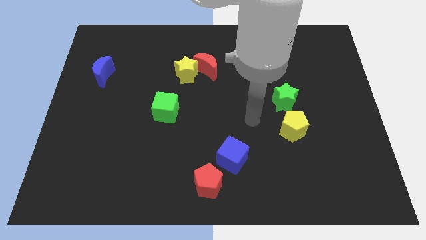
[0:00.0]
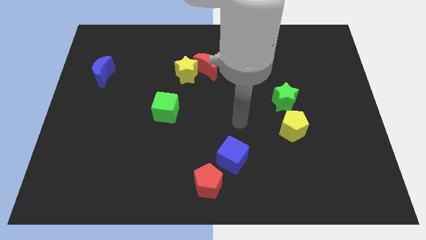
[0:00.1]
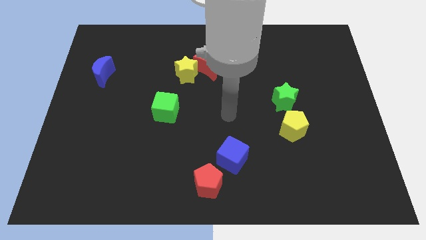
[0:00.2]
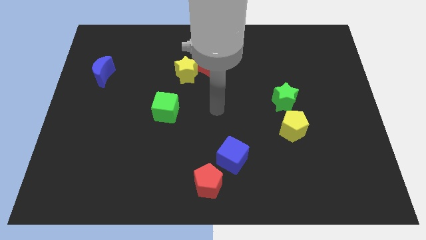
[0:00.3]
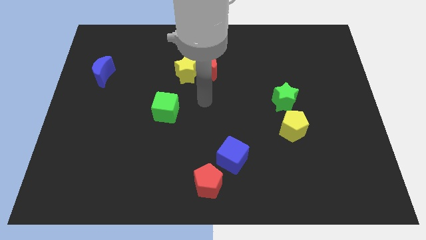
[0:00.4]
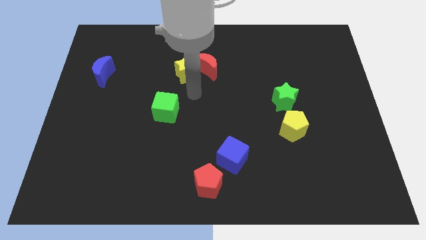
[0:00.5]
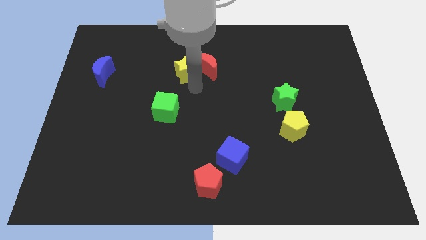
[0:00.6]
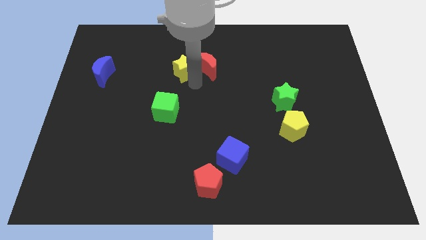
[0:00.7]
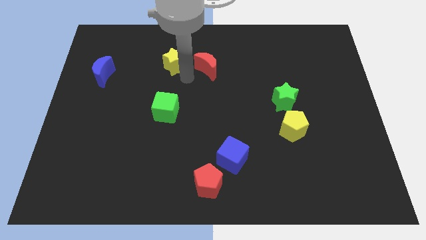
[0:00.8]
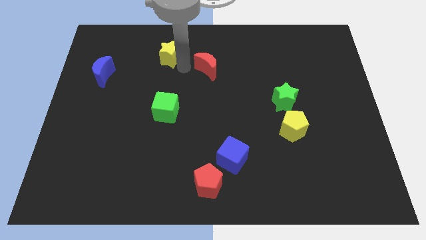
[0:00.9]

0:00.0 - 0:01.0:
pull the red moon apart from the yellow star

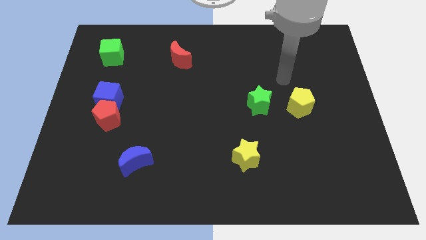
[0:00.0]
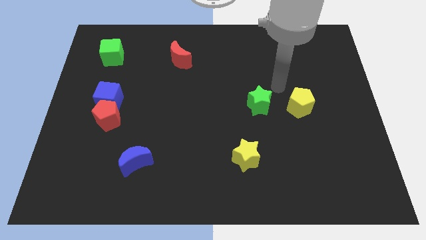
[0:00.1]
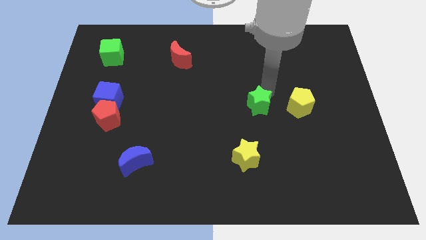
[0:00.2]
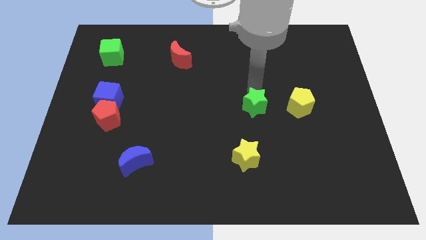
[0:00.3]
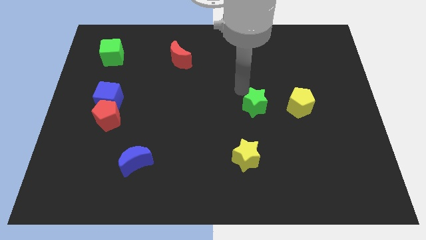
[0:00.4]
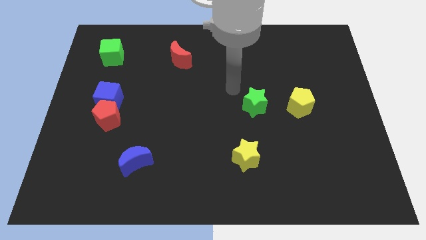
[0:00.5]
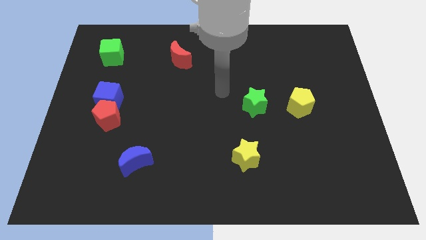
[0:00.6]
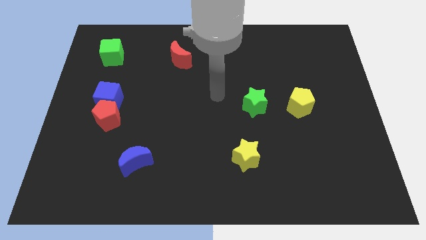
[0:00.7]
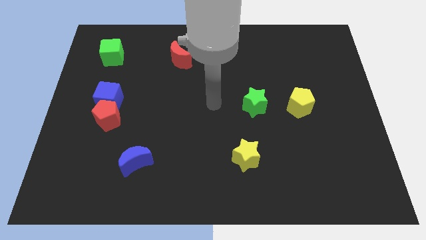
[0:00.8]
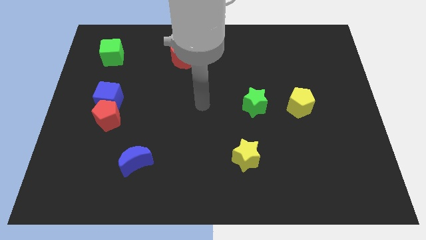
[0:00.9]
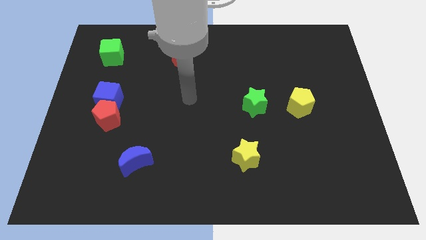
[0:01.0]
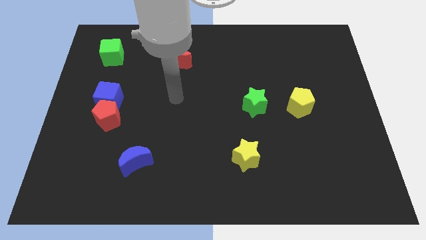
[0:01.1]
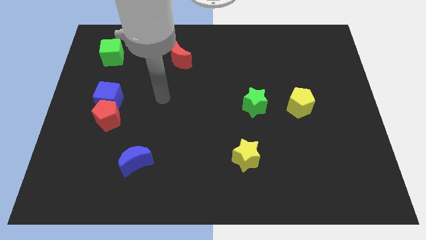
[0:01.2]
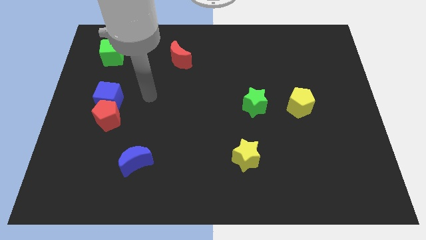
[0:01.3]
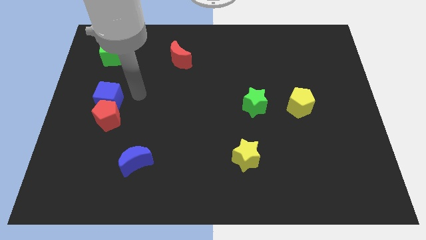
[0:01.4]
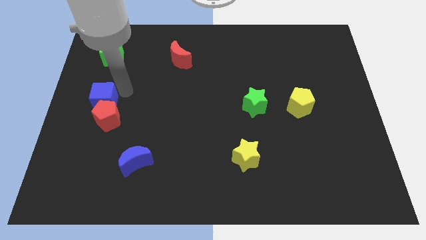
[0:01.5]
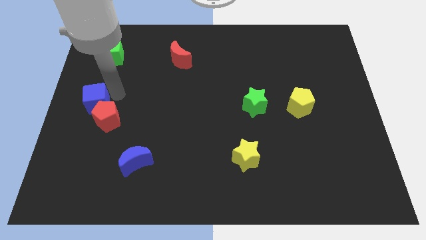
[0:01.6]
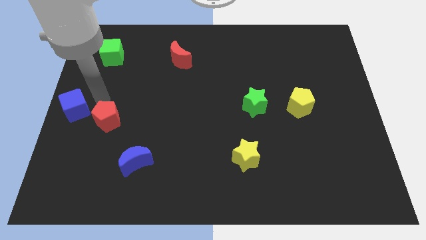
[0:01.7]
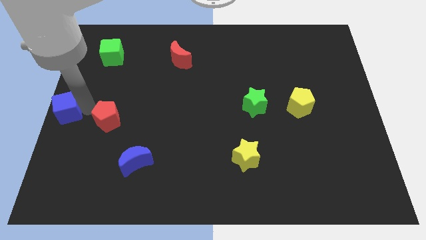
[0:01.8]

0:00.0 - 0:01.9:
pull the red pentagon apart from the blue cube

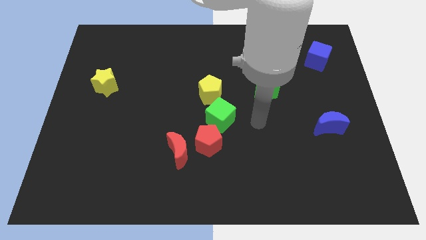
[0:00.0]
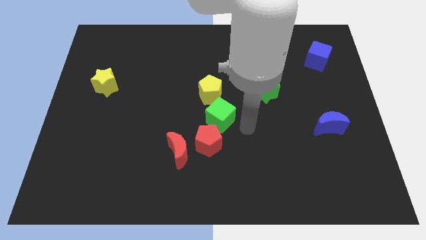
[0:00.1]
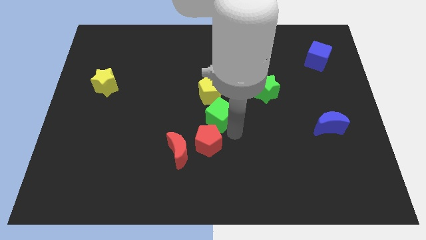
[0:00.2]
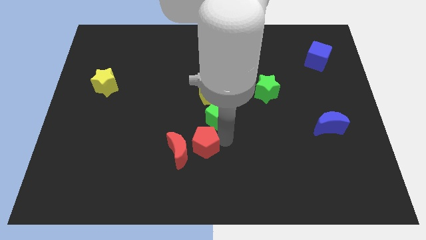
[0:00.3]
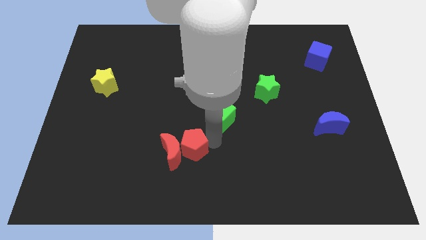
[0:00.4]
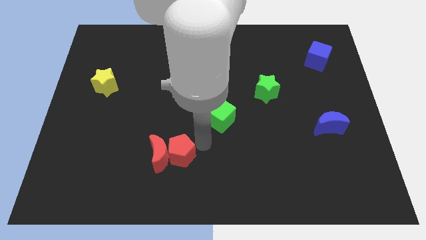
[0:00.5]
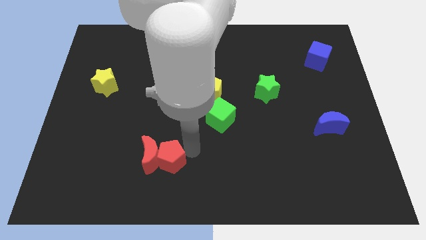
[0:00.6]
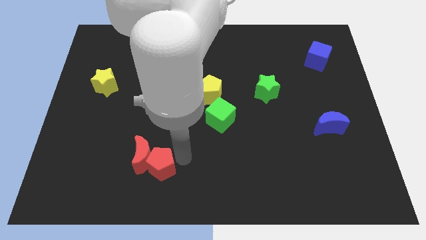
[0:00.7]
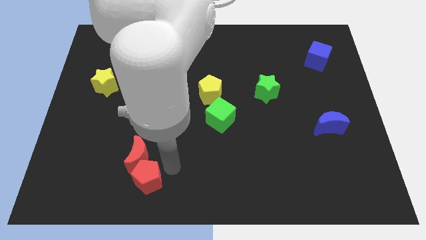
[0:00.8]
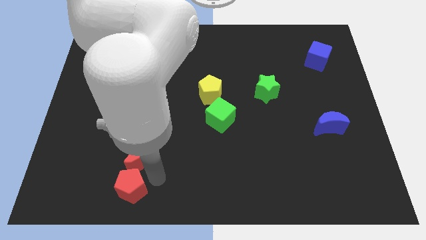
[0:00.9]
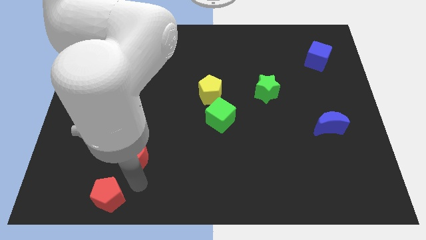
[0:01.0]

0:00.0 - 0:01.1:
pull the red moon apart from the red pentagon

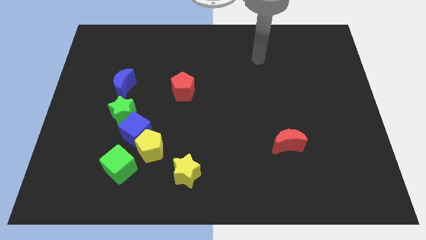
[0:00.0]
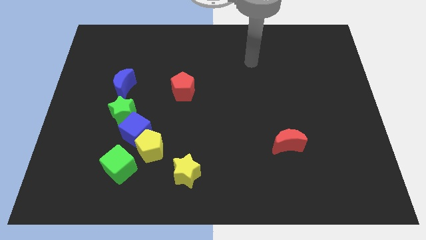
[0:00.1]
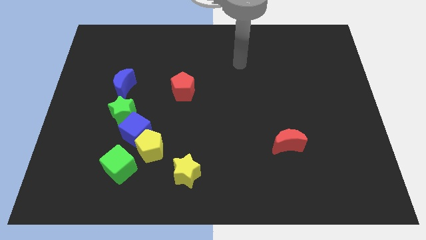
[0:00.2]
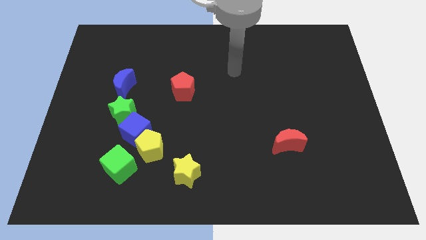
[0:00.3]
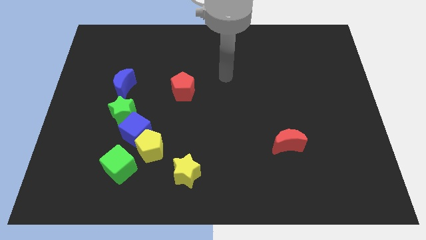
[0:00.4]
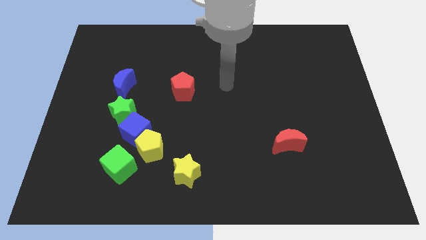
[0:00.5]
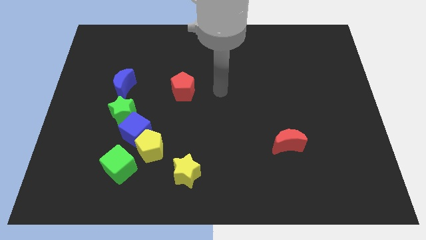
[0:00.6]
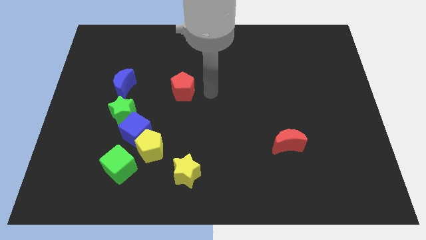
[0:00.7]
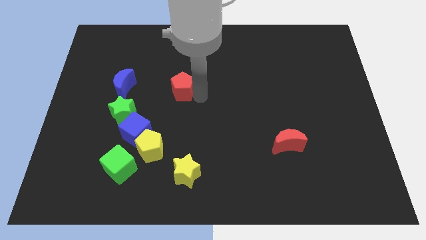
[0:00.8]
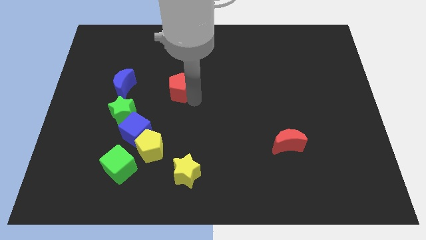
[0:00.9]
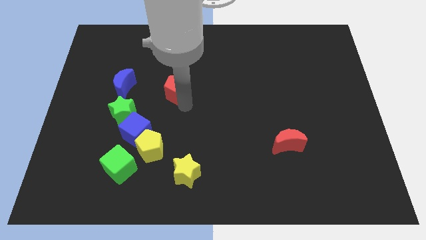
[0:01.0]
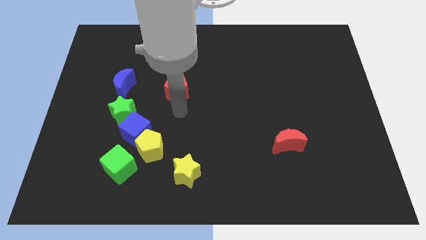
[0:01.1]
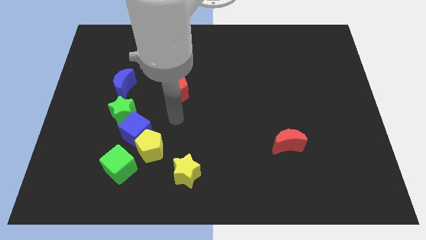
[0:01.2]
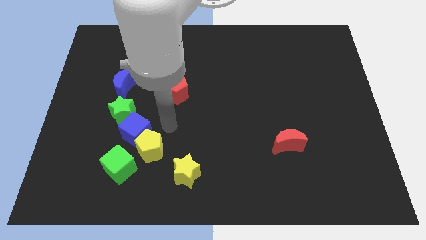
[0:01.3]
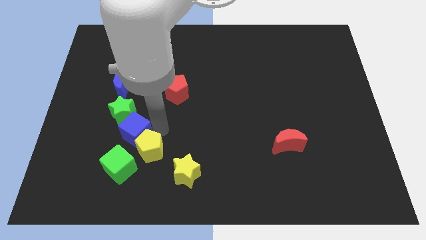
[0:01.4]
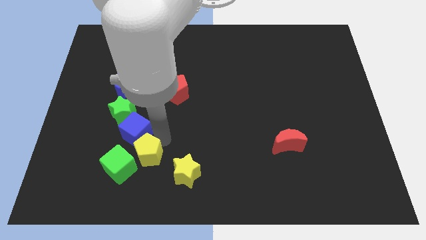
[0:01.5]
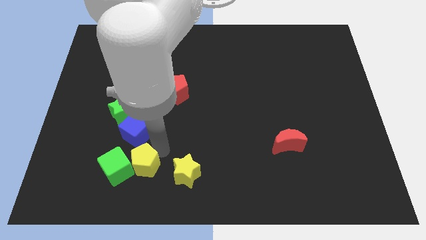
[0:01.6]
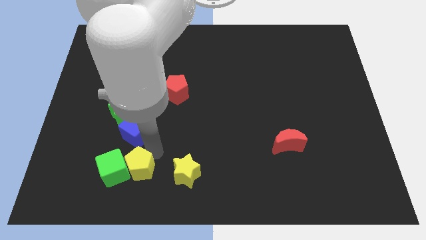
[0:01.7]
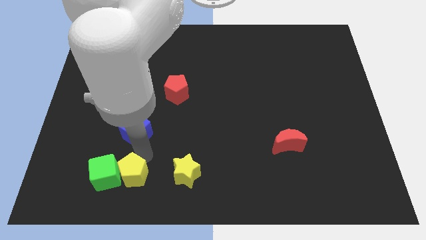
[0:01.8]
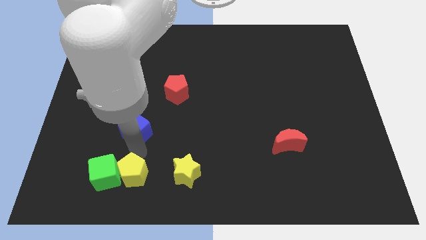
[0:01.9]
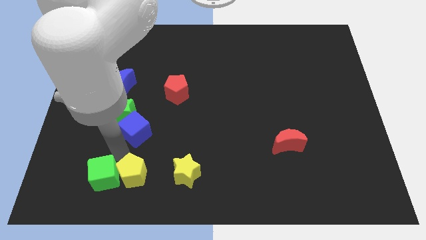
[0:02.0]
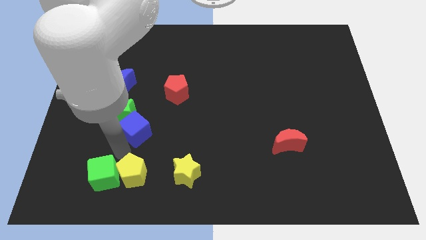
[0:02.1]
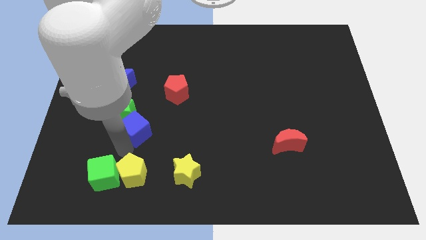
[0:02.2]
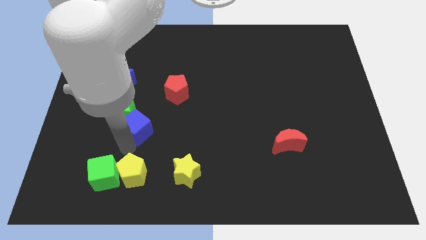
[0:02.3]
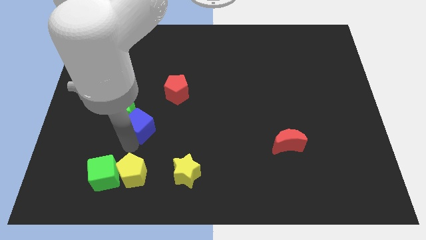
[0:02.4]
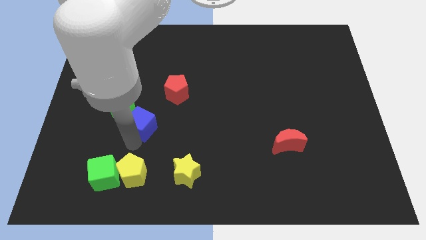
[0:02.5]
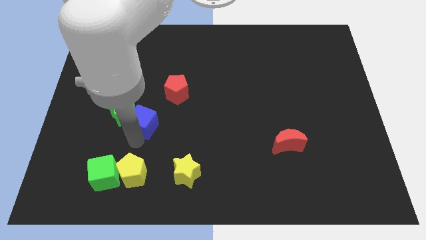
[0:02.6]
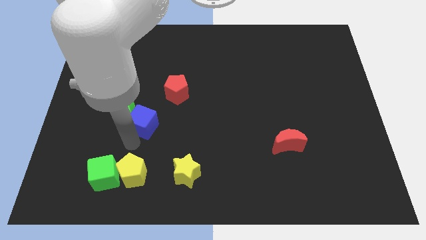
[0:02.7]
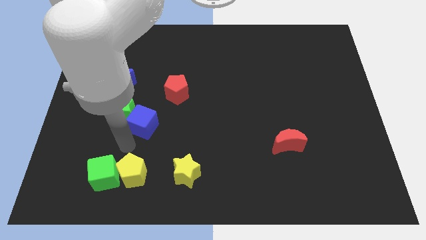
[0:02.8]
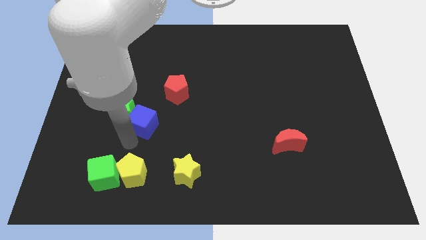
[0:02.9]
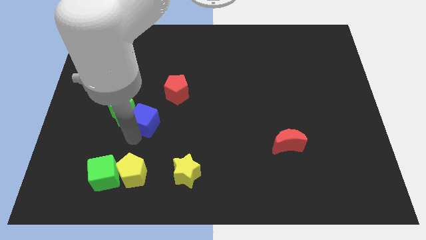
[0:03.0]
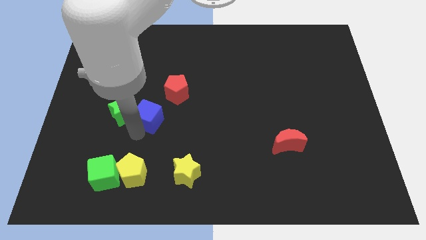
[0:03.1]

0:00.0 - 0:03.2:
pull the blue cube apart from the clump

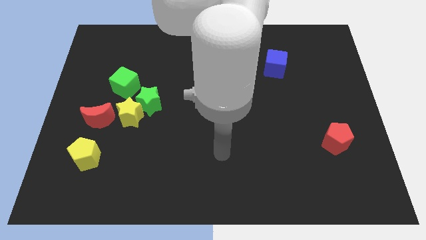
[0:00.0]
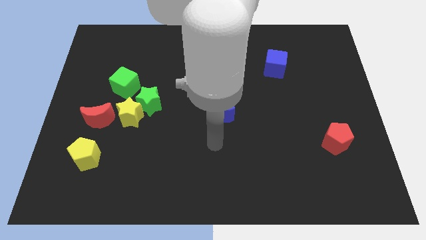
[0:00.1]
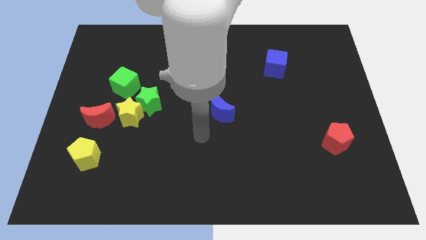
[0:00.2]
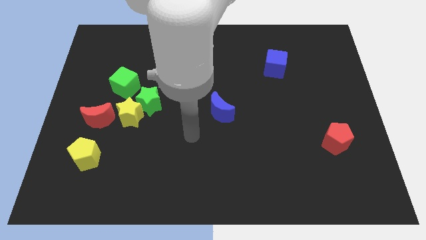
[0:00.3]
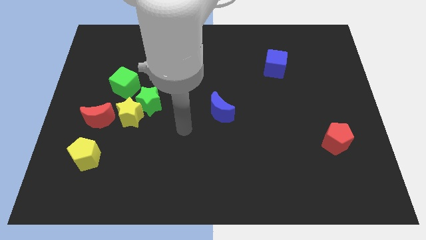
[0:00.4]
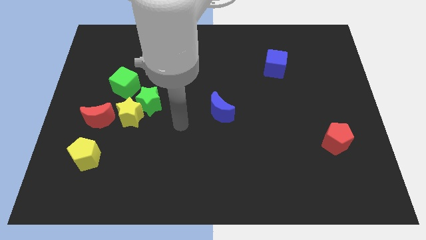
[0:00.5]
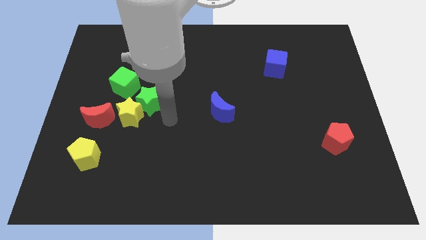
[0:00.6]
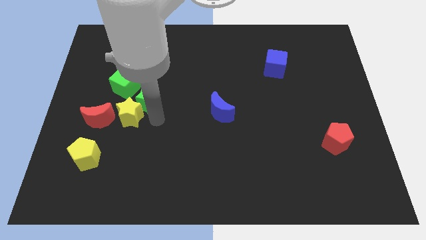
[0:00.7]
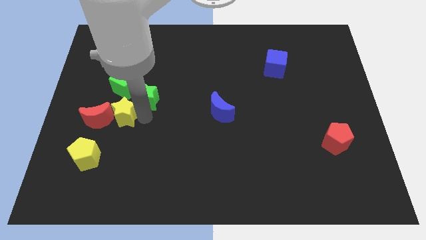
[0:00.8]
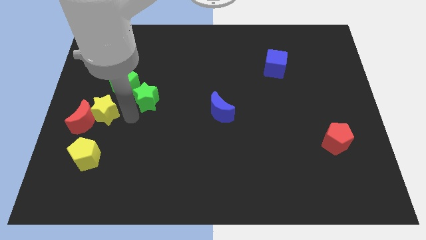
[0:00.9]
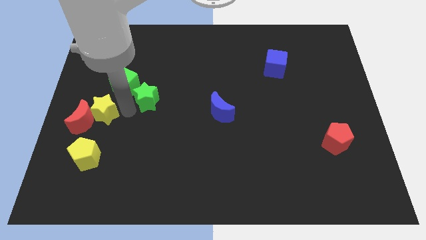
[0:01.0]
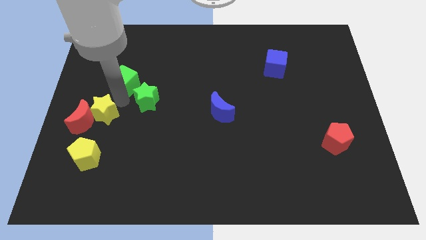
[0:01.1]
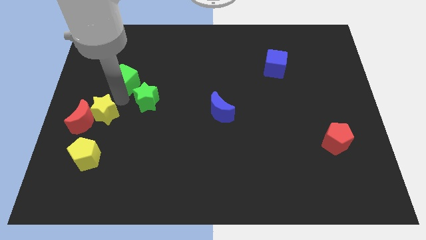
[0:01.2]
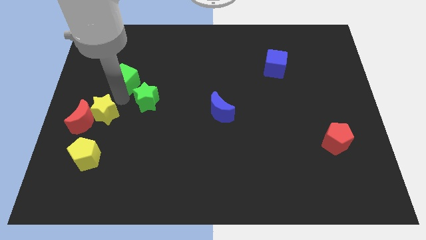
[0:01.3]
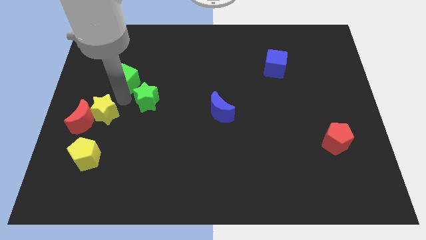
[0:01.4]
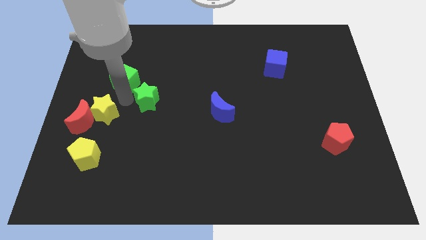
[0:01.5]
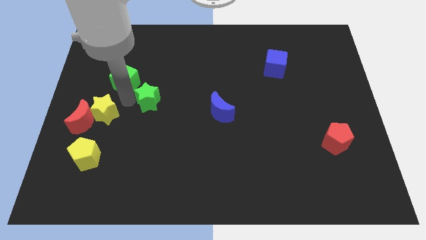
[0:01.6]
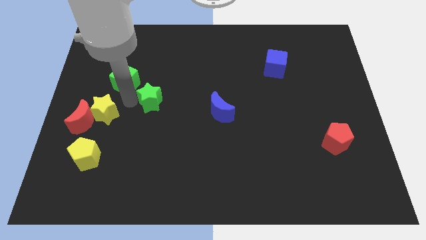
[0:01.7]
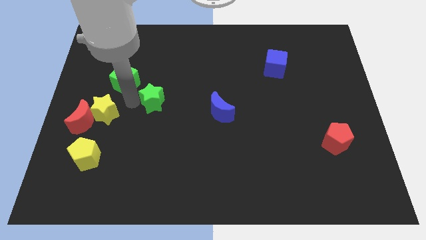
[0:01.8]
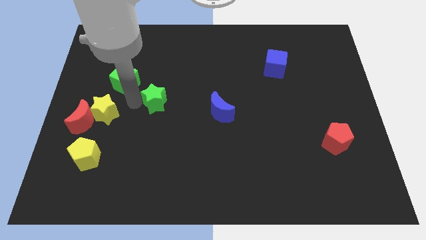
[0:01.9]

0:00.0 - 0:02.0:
separate the green star from the yellow star and green cube
